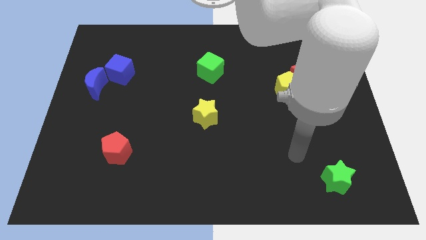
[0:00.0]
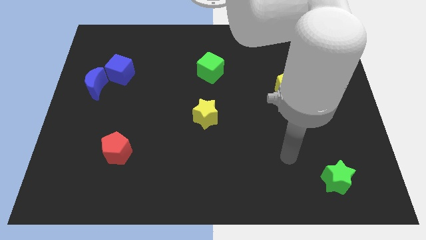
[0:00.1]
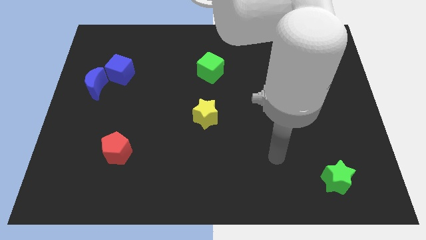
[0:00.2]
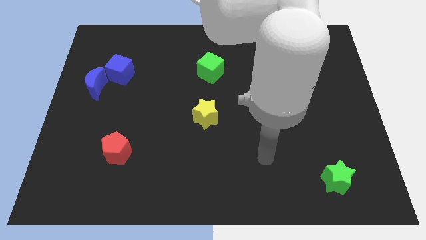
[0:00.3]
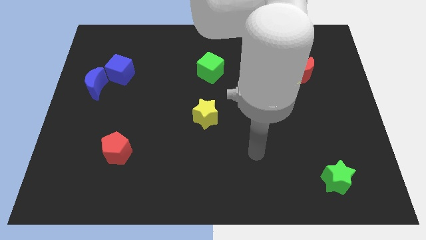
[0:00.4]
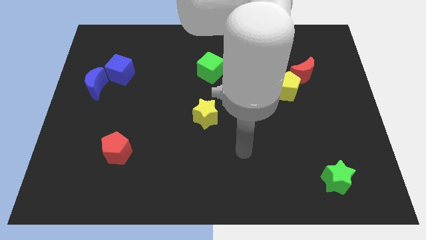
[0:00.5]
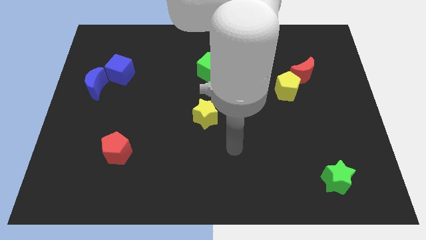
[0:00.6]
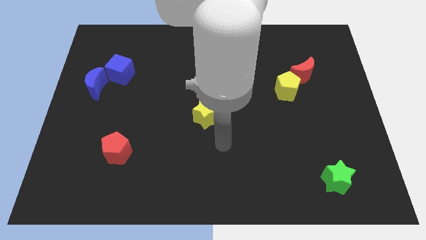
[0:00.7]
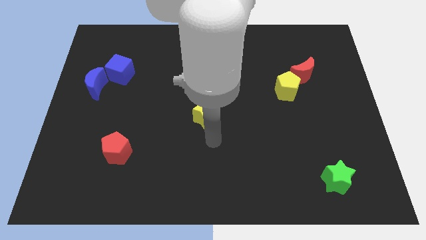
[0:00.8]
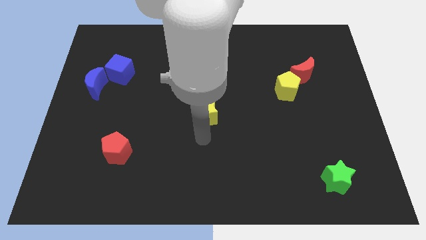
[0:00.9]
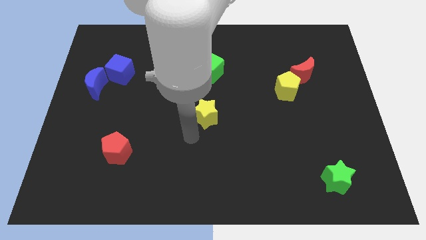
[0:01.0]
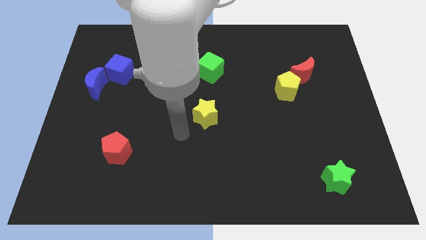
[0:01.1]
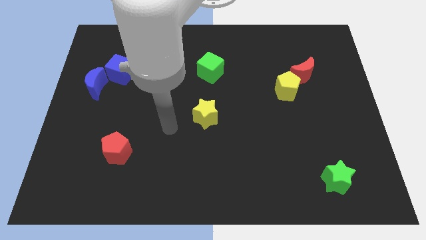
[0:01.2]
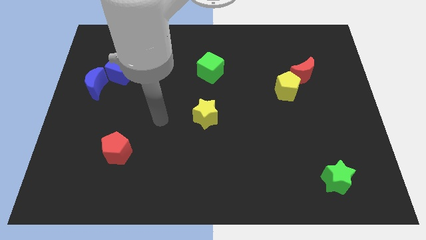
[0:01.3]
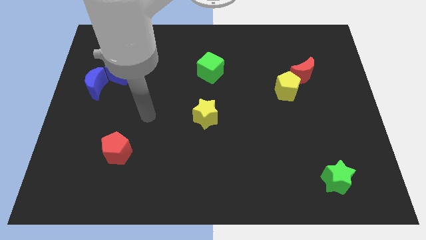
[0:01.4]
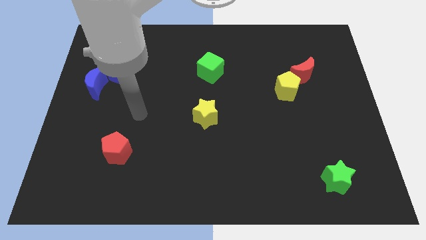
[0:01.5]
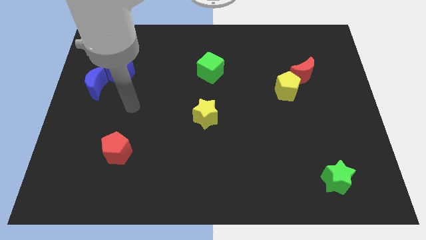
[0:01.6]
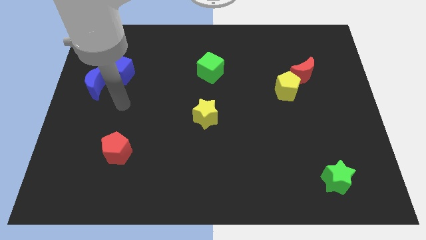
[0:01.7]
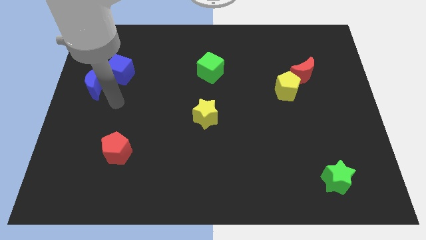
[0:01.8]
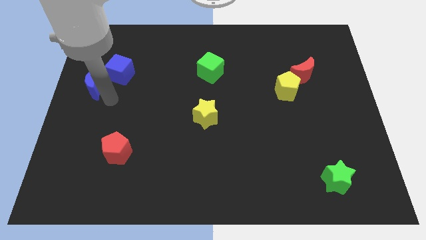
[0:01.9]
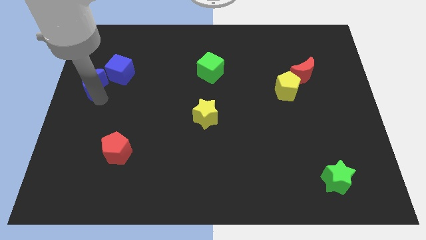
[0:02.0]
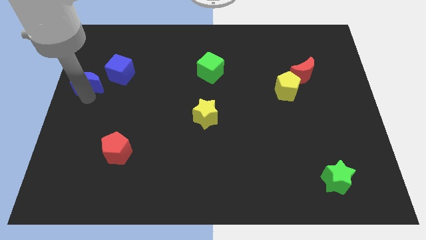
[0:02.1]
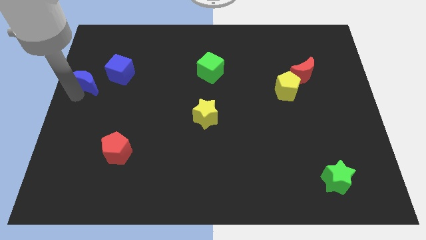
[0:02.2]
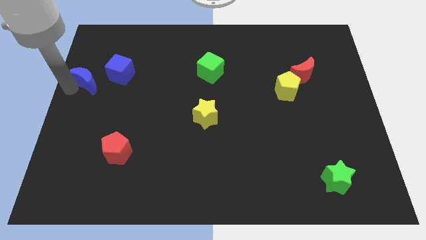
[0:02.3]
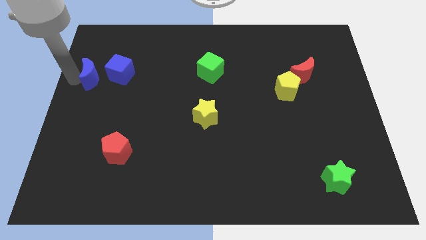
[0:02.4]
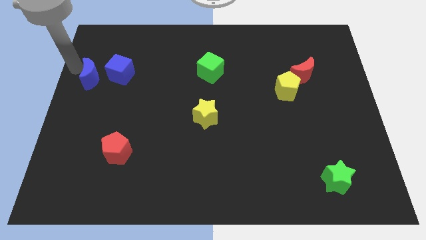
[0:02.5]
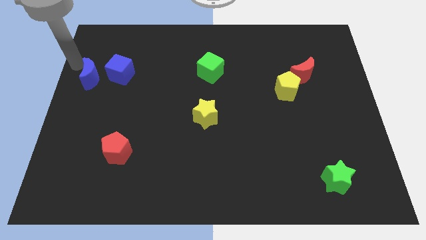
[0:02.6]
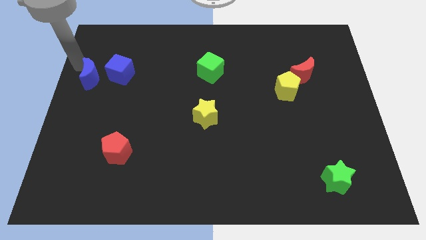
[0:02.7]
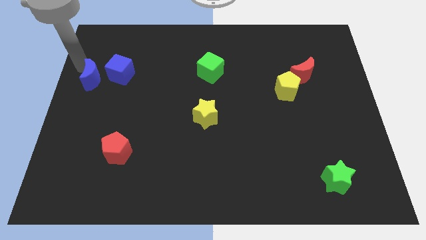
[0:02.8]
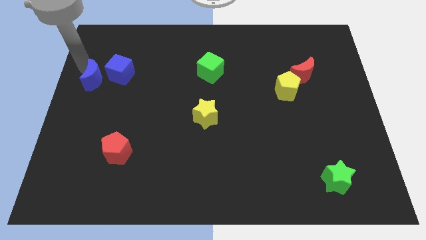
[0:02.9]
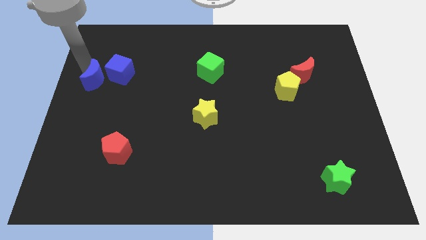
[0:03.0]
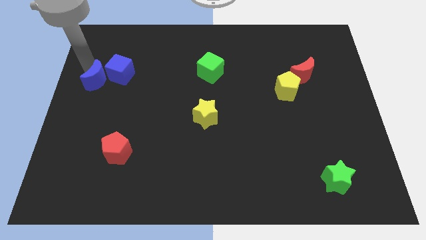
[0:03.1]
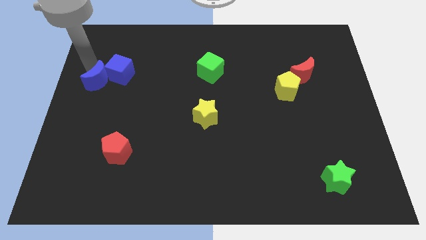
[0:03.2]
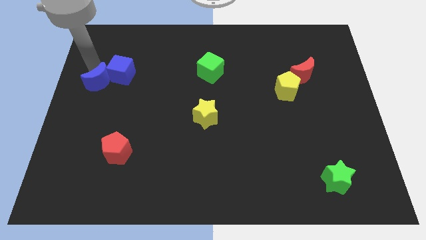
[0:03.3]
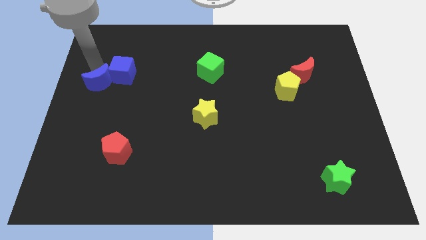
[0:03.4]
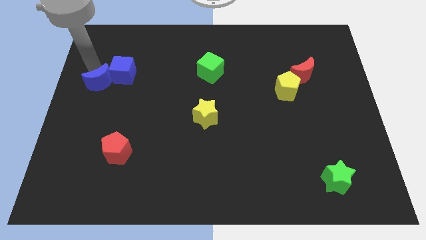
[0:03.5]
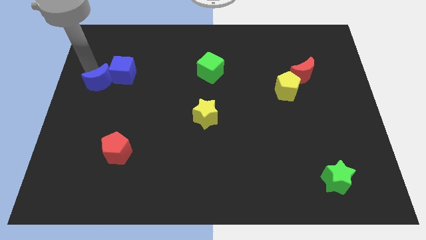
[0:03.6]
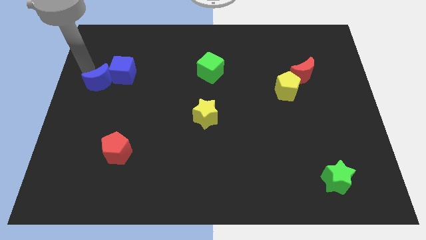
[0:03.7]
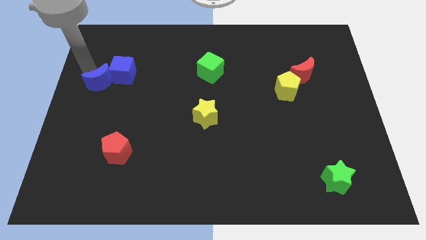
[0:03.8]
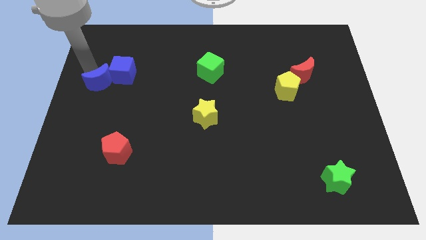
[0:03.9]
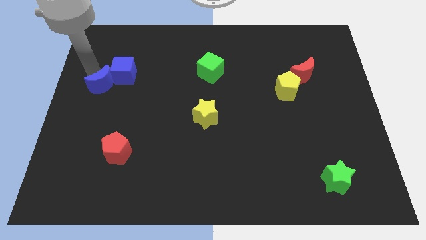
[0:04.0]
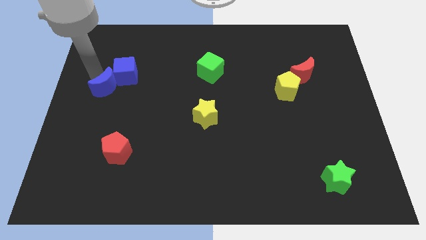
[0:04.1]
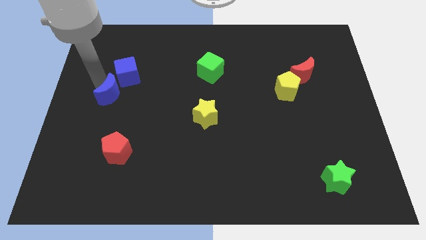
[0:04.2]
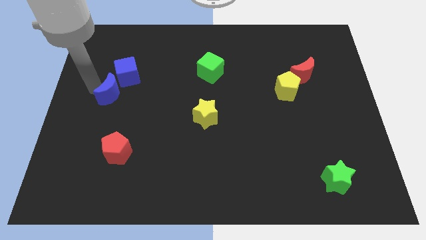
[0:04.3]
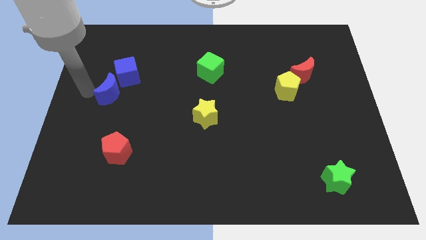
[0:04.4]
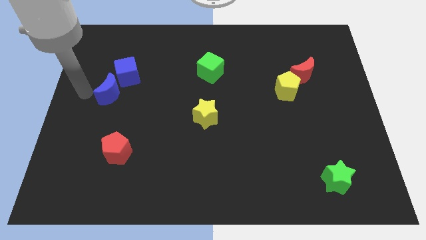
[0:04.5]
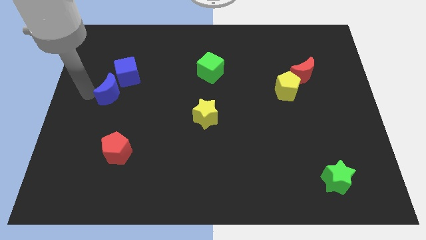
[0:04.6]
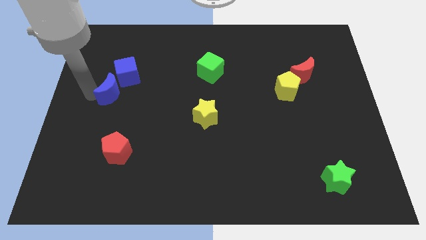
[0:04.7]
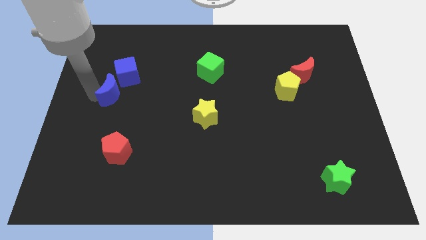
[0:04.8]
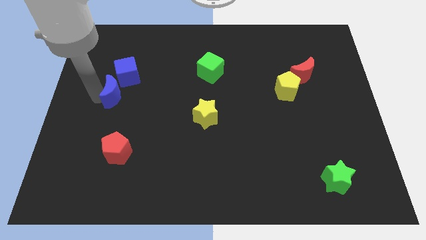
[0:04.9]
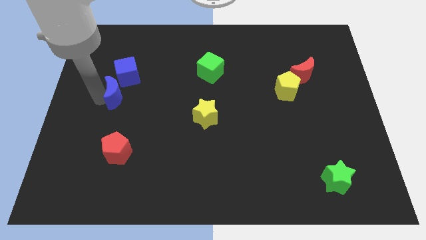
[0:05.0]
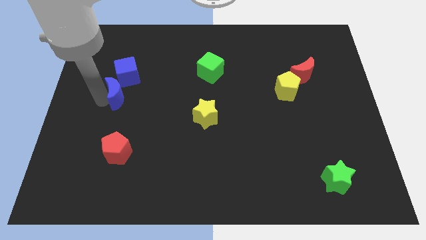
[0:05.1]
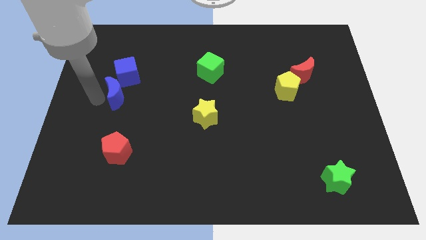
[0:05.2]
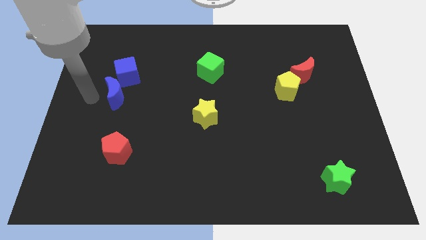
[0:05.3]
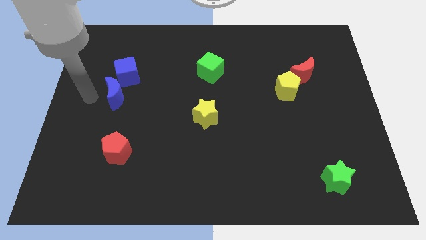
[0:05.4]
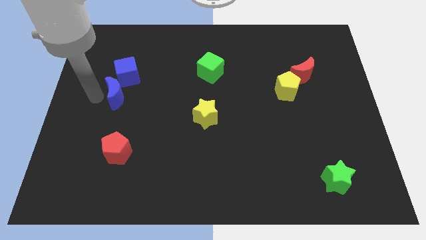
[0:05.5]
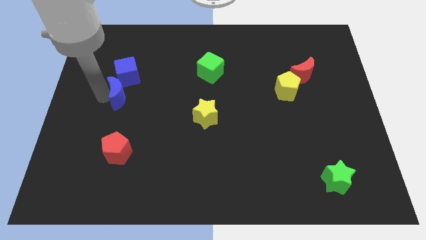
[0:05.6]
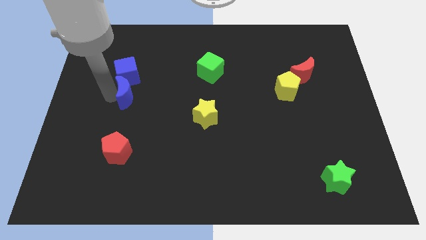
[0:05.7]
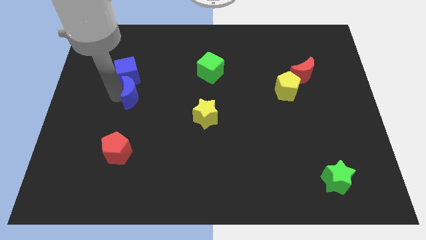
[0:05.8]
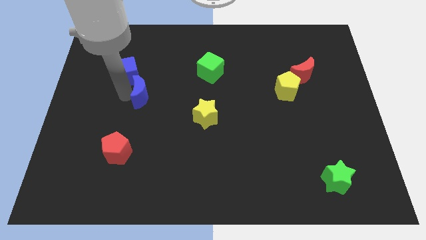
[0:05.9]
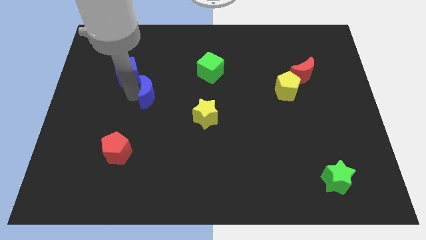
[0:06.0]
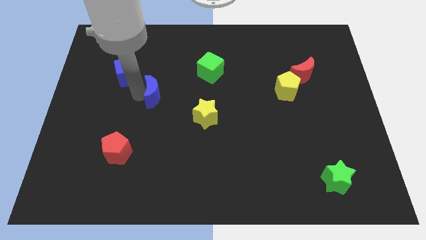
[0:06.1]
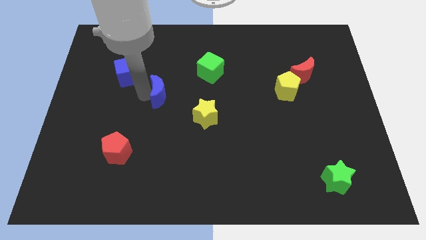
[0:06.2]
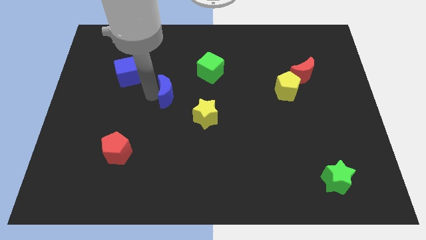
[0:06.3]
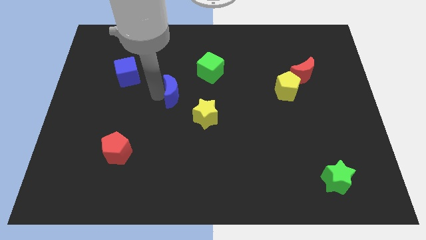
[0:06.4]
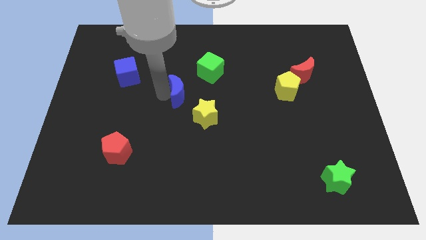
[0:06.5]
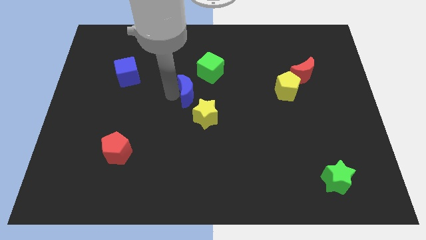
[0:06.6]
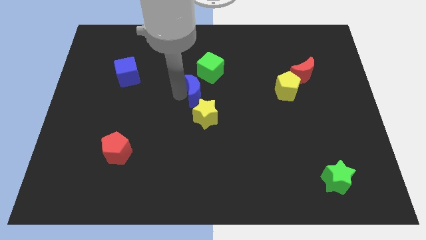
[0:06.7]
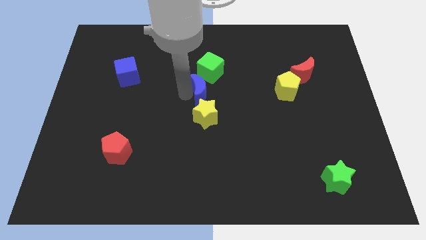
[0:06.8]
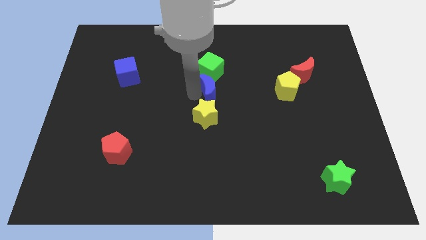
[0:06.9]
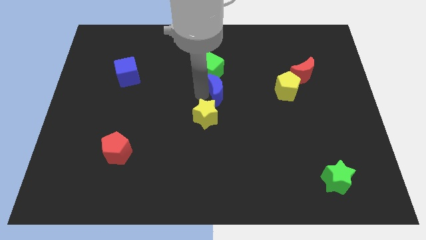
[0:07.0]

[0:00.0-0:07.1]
slide the blue moon diagonally down and to the right of the green cube

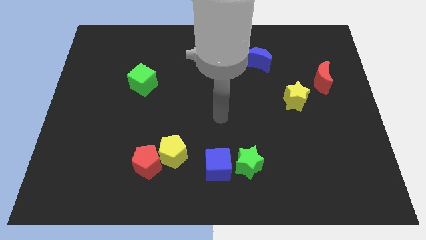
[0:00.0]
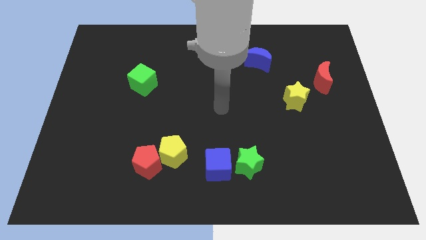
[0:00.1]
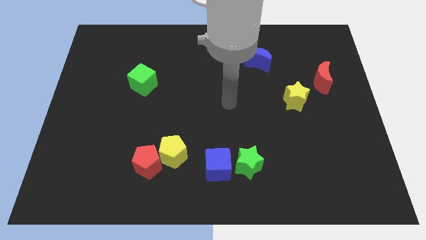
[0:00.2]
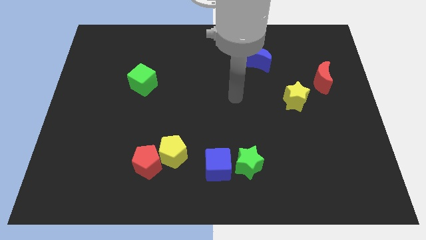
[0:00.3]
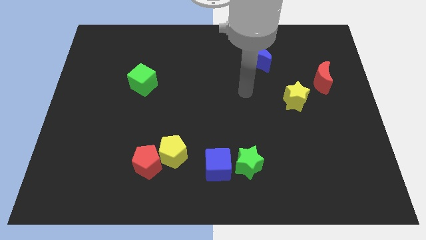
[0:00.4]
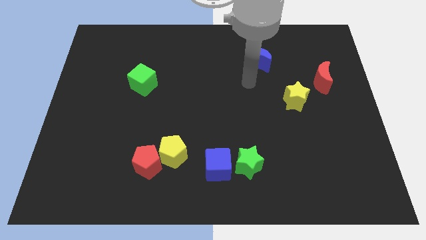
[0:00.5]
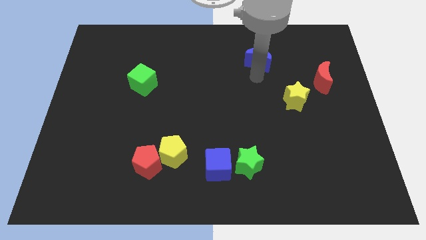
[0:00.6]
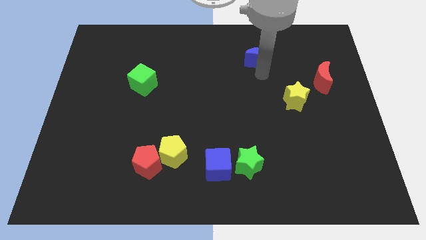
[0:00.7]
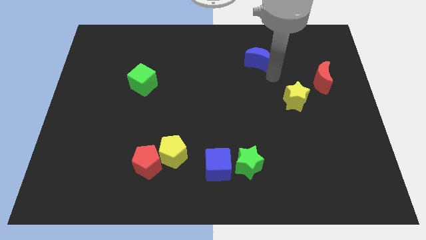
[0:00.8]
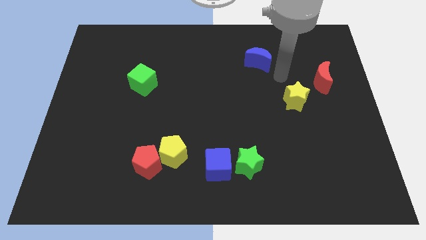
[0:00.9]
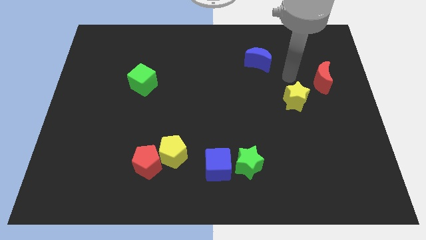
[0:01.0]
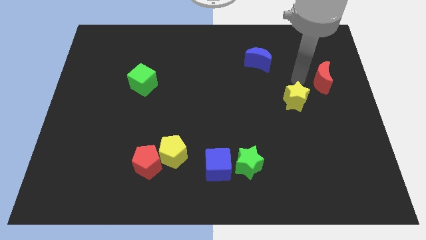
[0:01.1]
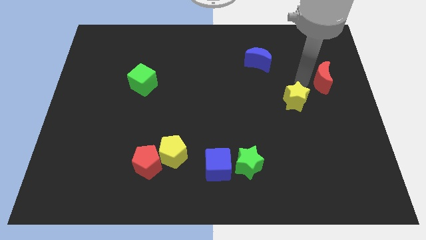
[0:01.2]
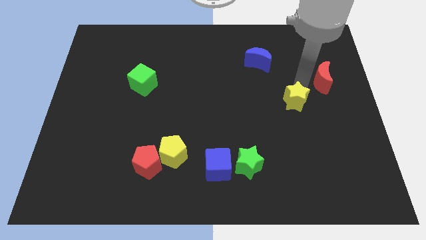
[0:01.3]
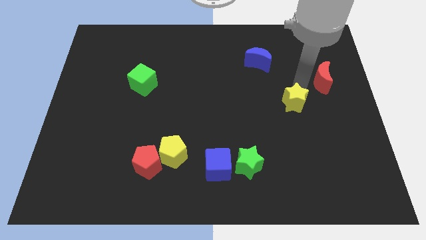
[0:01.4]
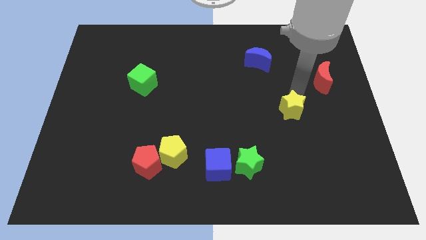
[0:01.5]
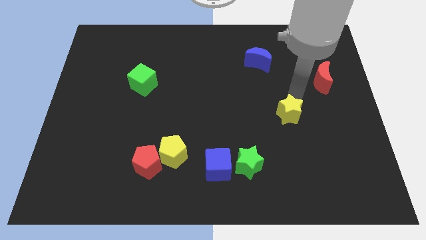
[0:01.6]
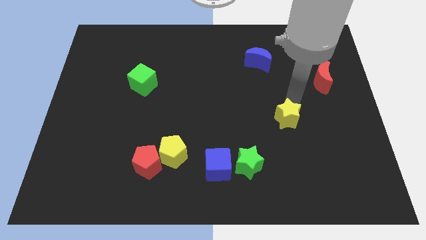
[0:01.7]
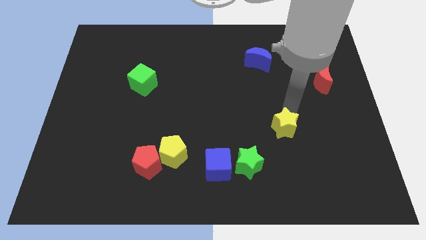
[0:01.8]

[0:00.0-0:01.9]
slide the yellow star diagonally up and to the right of the green star
